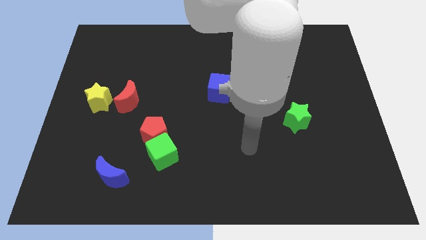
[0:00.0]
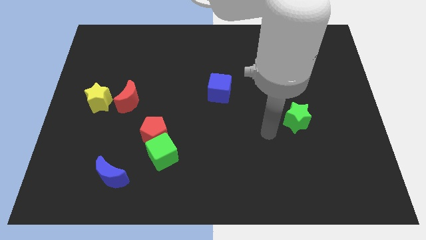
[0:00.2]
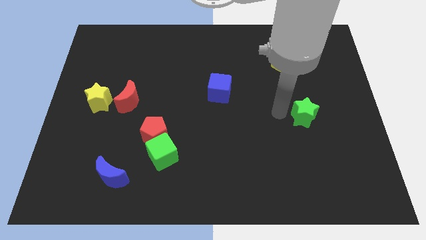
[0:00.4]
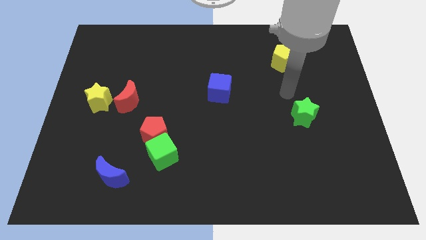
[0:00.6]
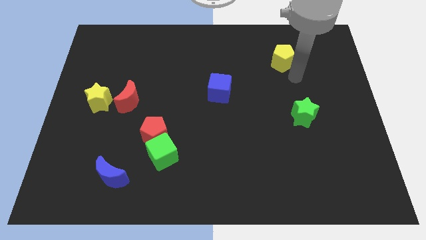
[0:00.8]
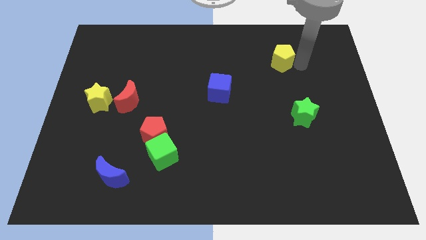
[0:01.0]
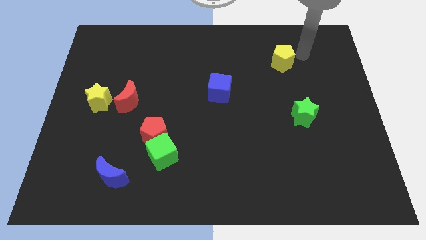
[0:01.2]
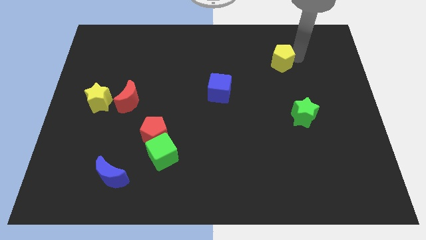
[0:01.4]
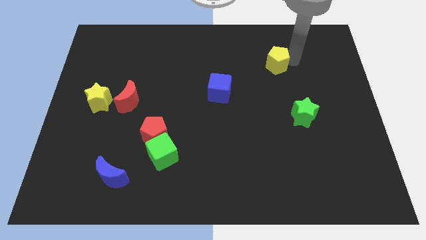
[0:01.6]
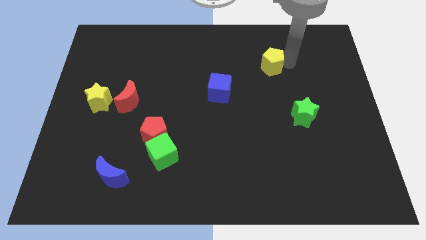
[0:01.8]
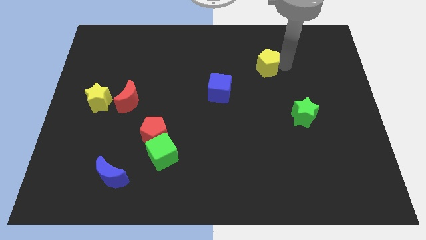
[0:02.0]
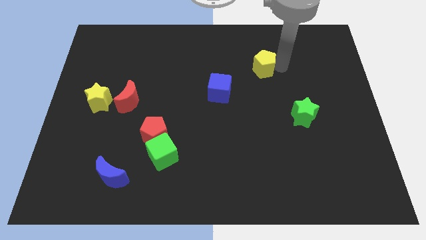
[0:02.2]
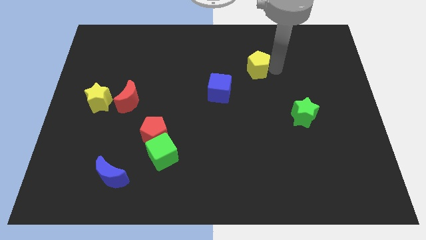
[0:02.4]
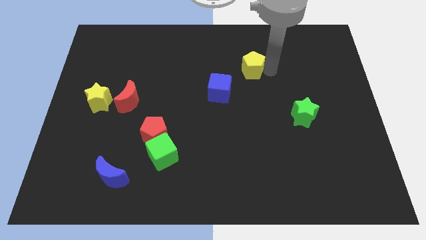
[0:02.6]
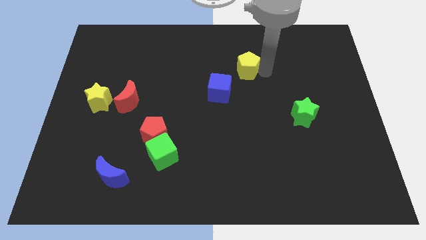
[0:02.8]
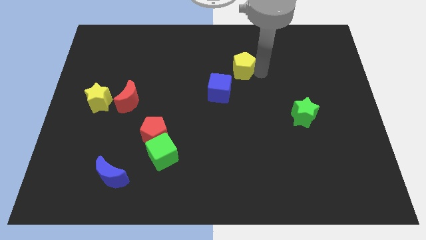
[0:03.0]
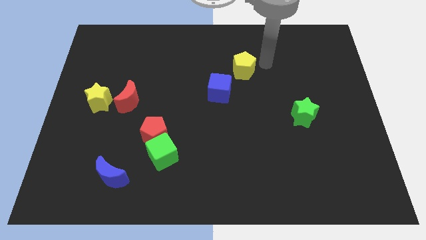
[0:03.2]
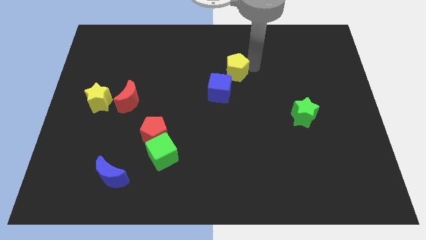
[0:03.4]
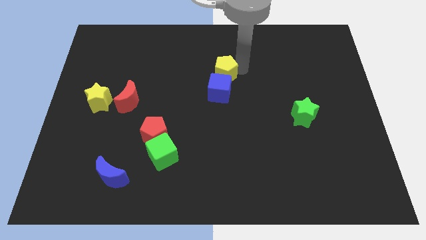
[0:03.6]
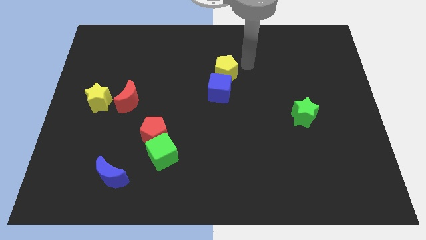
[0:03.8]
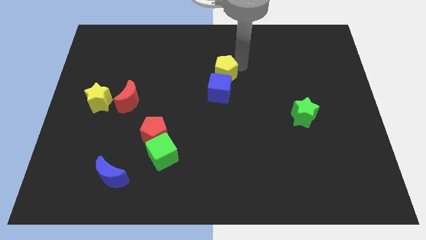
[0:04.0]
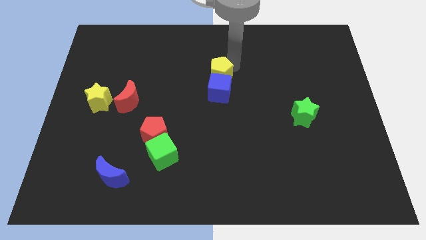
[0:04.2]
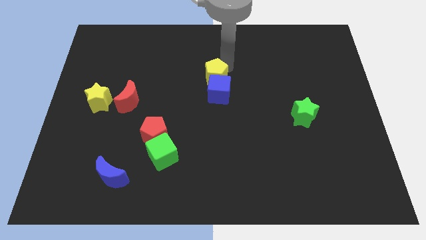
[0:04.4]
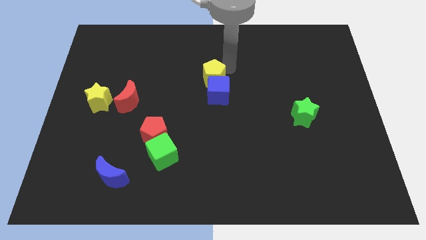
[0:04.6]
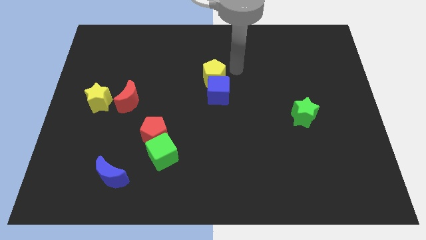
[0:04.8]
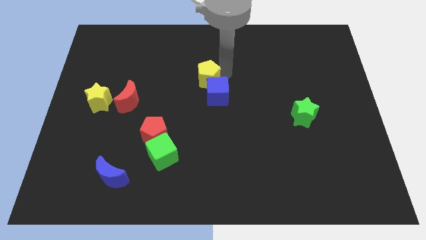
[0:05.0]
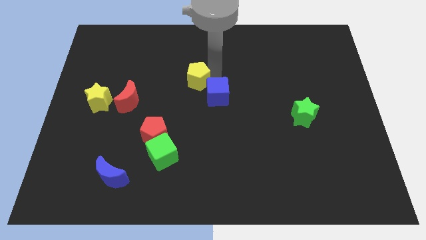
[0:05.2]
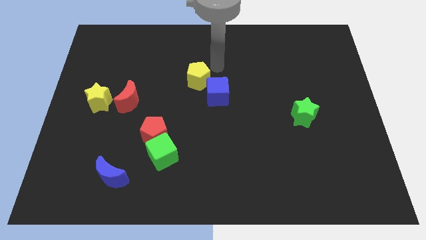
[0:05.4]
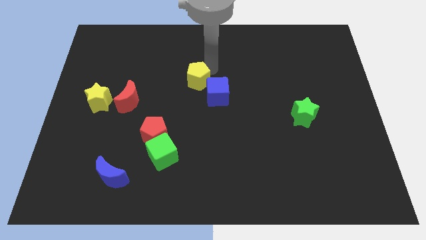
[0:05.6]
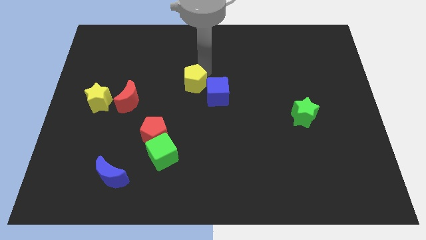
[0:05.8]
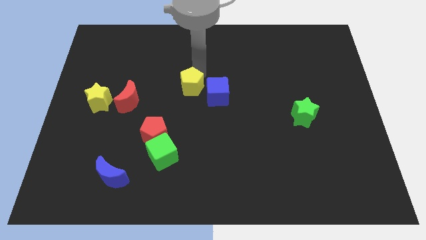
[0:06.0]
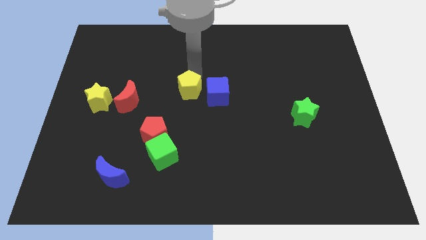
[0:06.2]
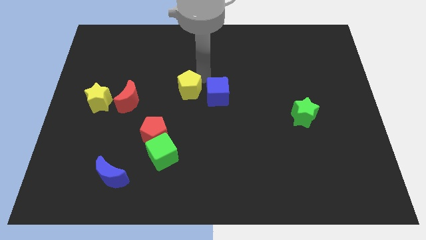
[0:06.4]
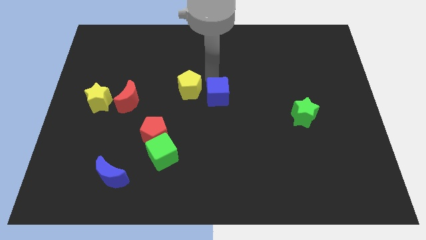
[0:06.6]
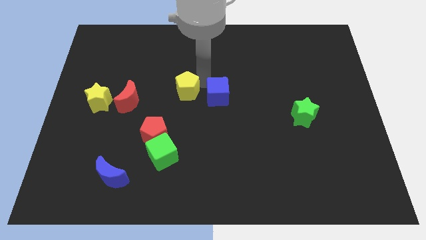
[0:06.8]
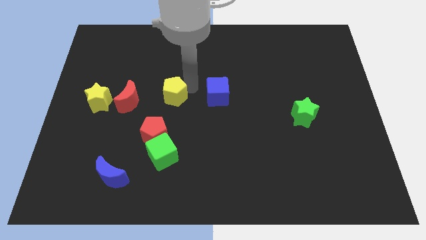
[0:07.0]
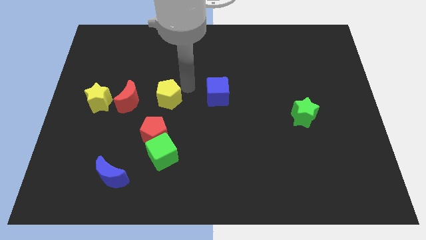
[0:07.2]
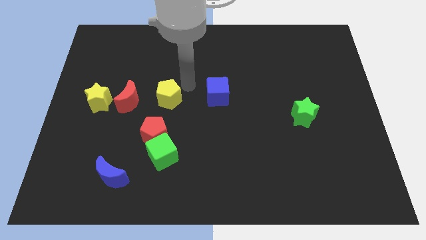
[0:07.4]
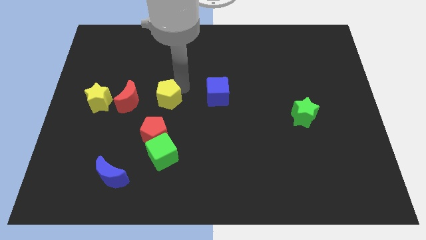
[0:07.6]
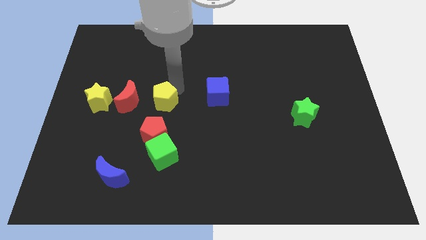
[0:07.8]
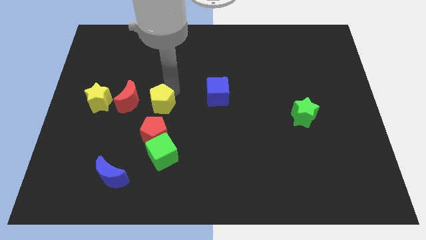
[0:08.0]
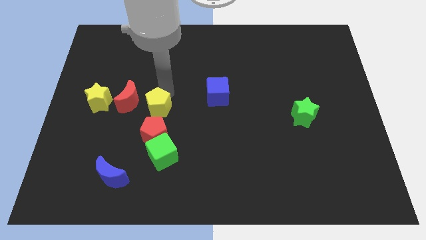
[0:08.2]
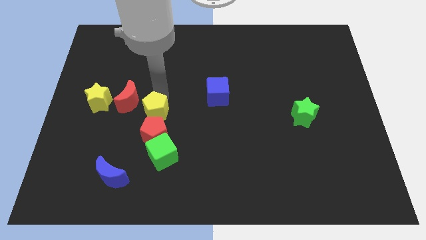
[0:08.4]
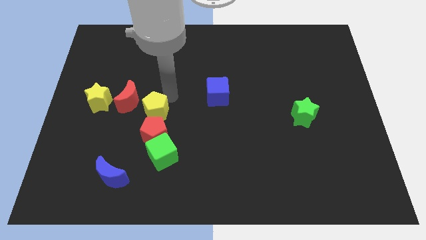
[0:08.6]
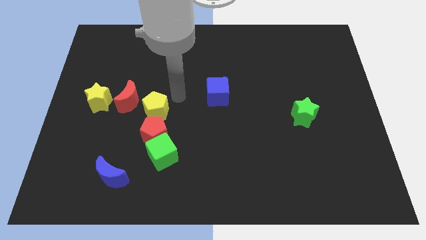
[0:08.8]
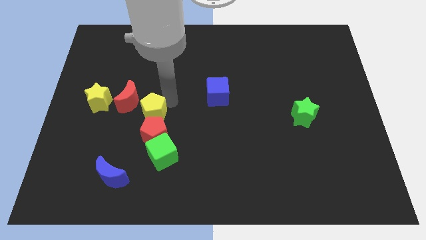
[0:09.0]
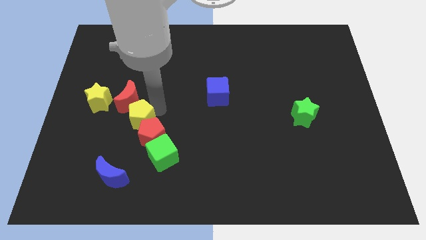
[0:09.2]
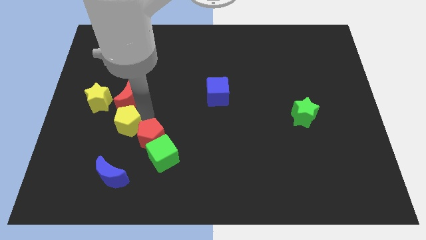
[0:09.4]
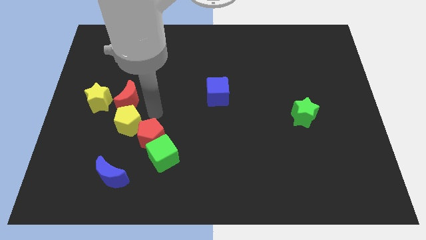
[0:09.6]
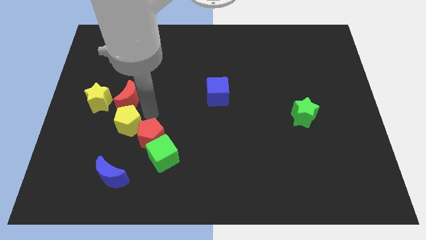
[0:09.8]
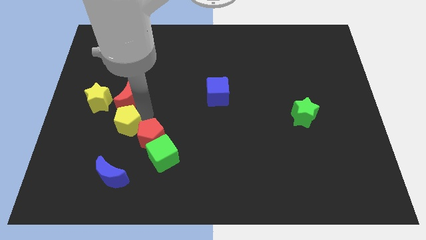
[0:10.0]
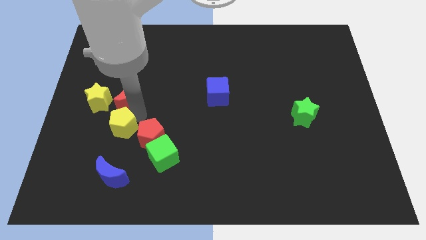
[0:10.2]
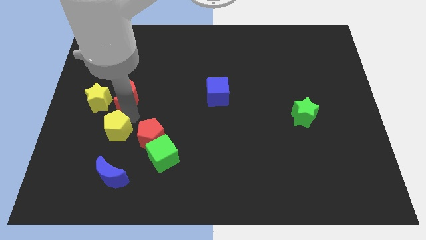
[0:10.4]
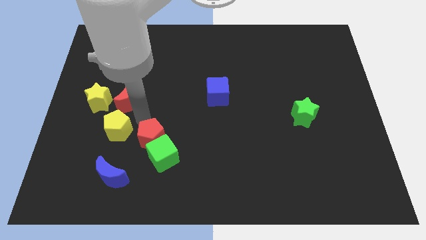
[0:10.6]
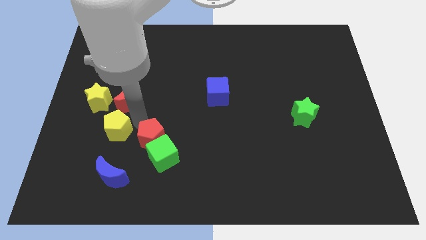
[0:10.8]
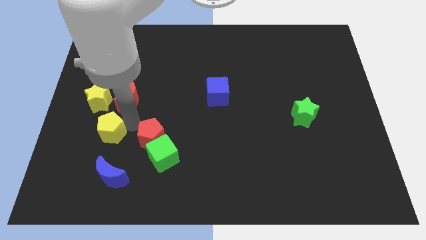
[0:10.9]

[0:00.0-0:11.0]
put the yellow pentagon to the bottom of the yellow star

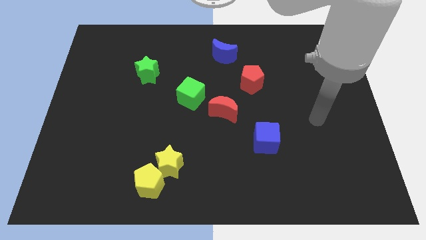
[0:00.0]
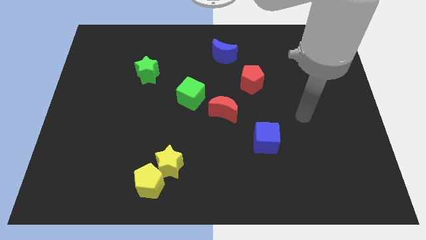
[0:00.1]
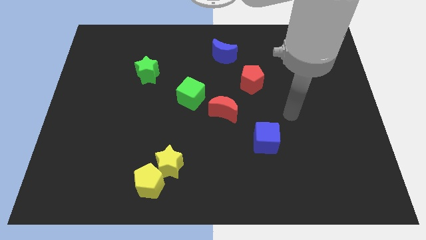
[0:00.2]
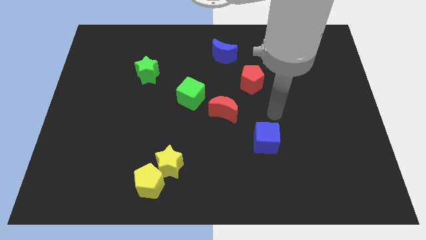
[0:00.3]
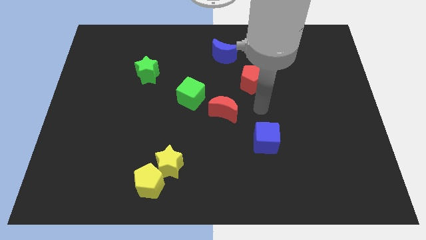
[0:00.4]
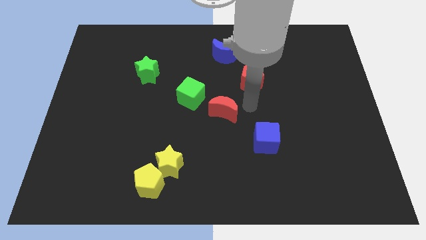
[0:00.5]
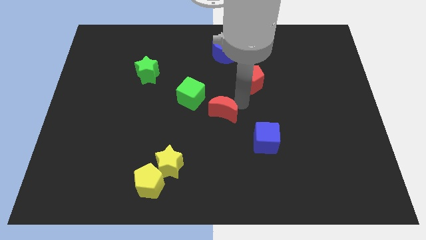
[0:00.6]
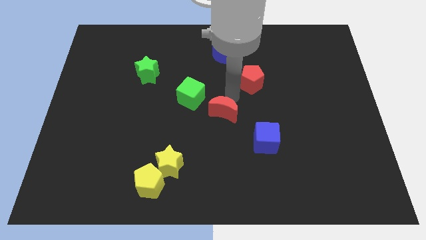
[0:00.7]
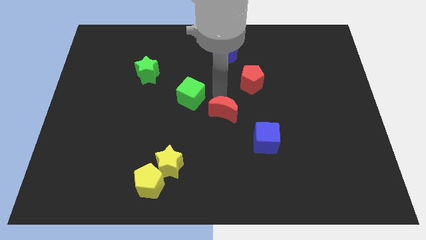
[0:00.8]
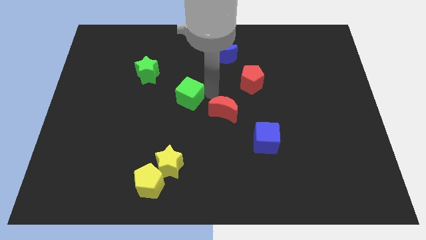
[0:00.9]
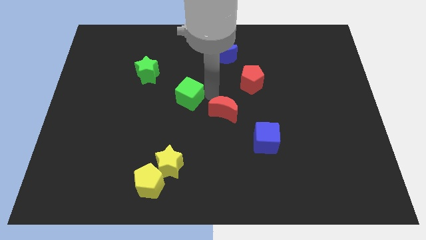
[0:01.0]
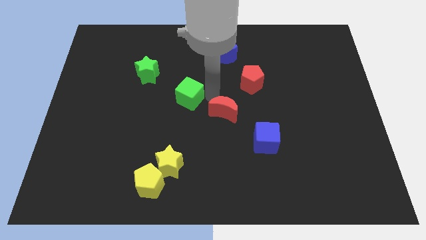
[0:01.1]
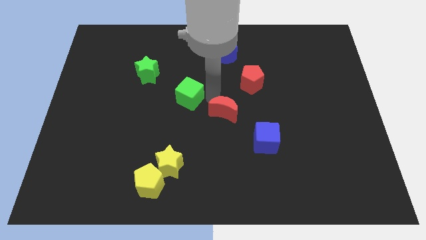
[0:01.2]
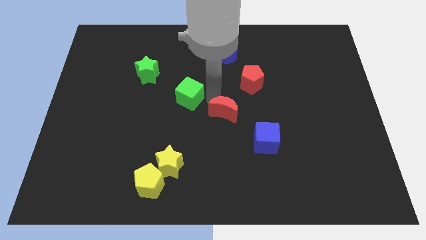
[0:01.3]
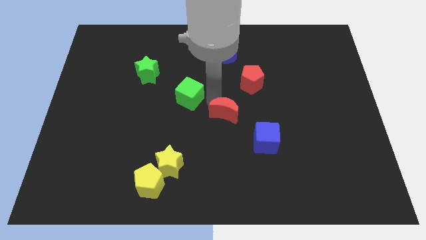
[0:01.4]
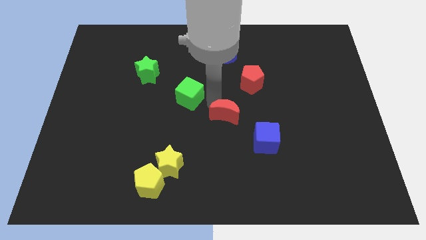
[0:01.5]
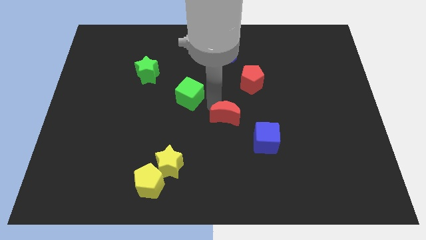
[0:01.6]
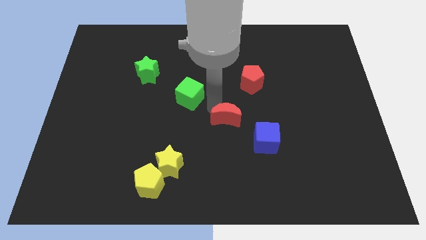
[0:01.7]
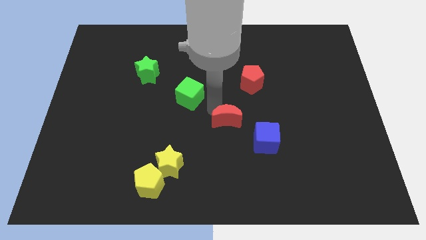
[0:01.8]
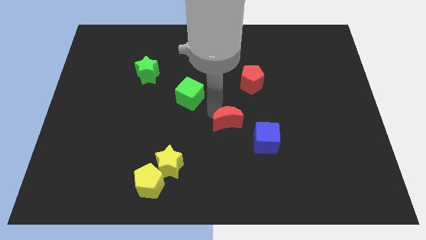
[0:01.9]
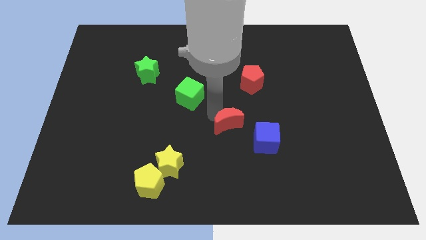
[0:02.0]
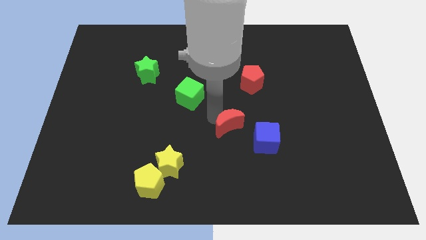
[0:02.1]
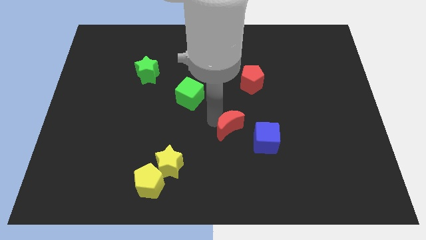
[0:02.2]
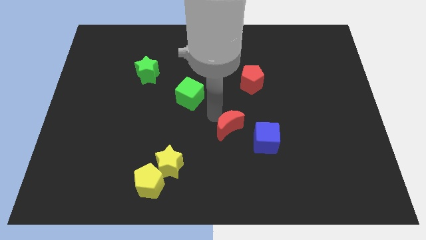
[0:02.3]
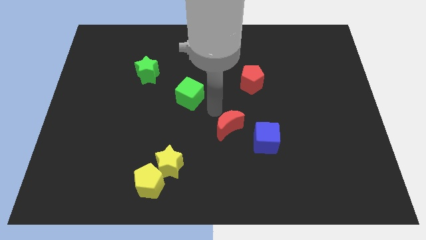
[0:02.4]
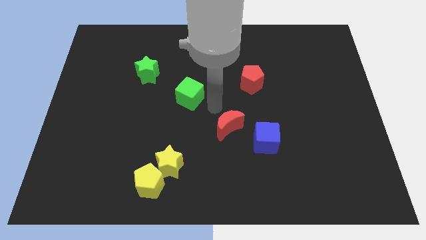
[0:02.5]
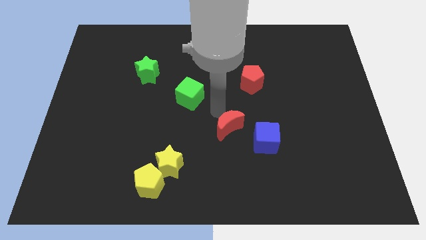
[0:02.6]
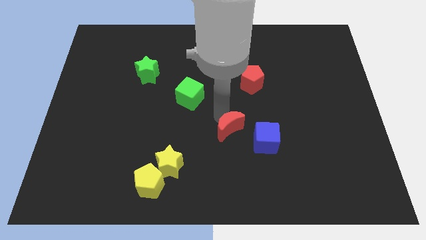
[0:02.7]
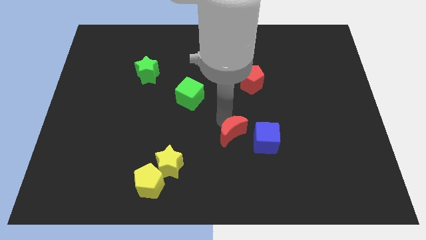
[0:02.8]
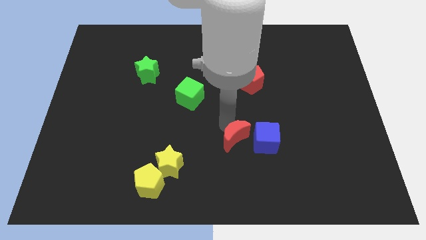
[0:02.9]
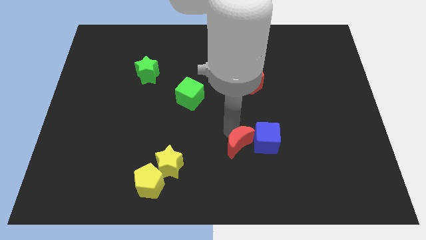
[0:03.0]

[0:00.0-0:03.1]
put the red moon to the bottom left of the blue cube
